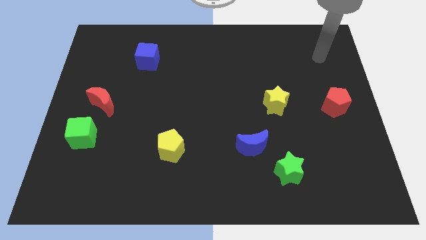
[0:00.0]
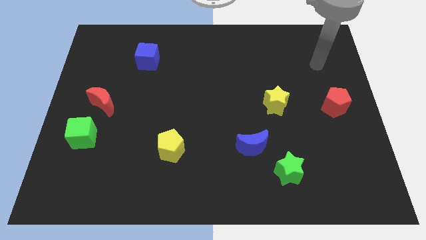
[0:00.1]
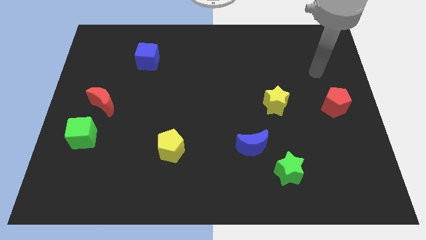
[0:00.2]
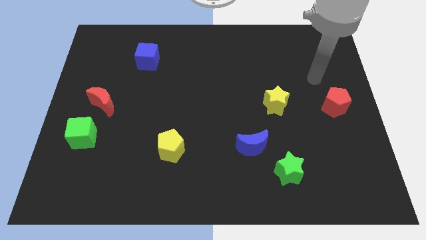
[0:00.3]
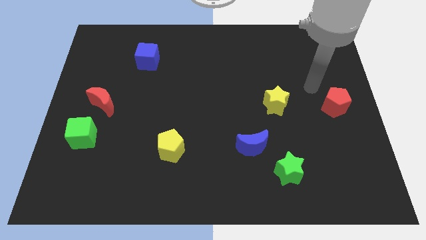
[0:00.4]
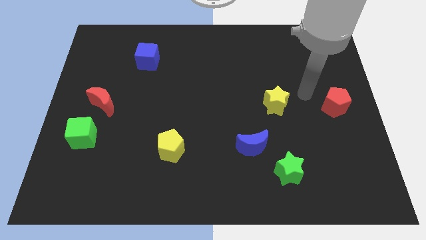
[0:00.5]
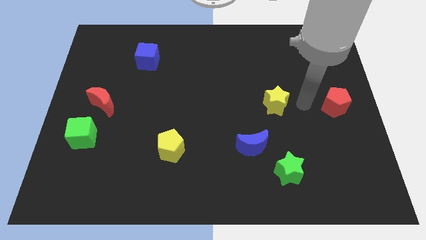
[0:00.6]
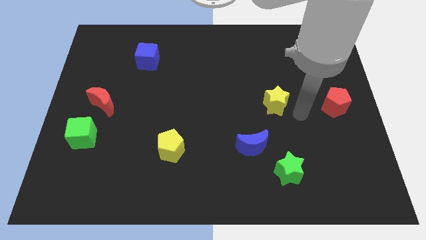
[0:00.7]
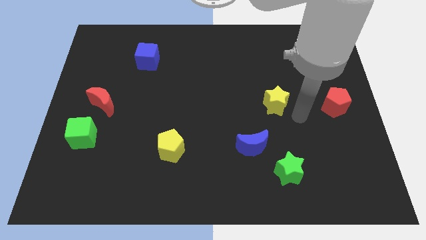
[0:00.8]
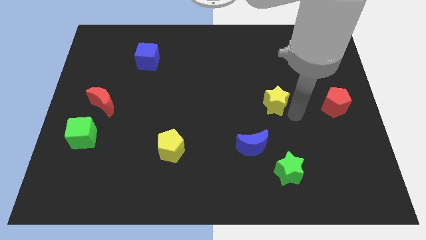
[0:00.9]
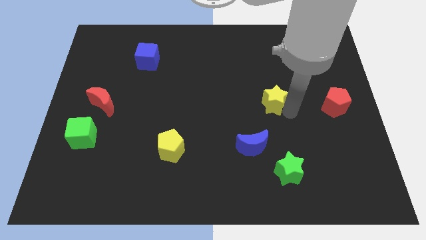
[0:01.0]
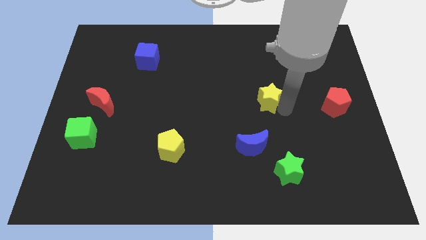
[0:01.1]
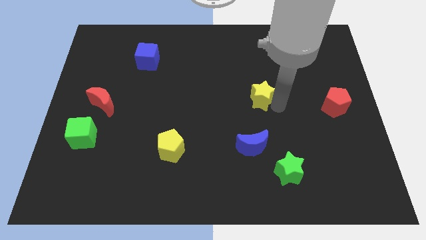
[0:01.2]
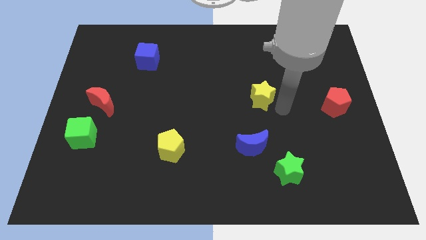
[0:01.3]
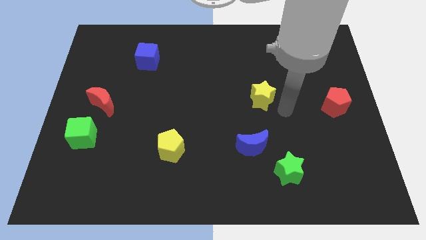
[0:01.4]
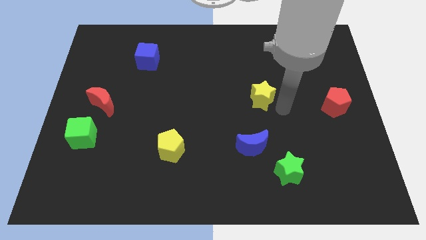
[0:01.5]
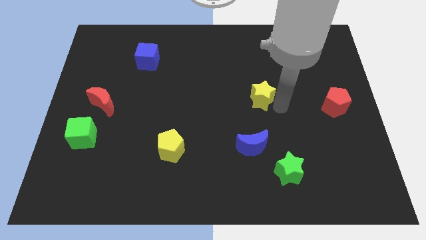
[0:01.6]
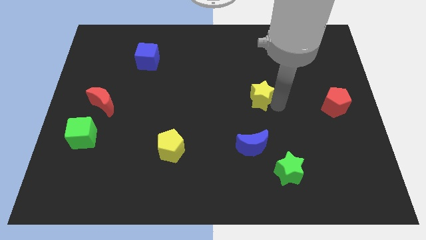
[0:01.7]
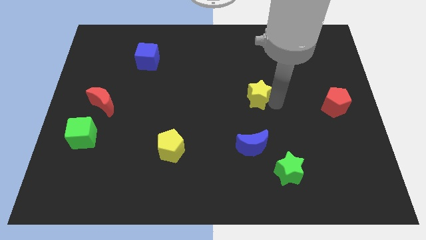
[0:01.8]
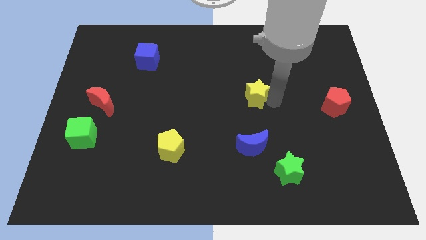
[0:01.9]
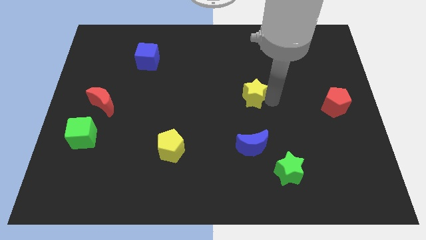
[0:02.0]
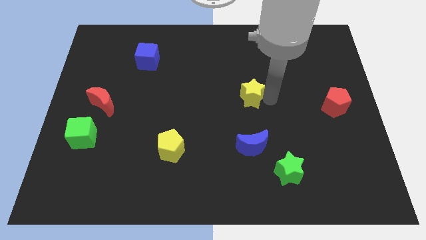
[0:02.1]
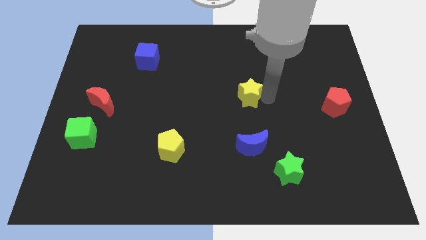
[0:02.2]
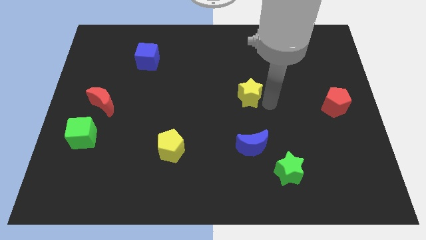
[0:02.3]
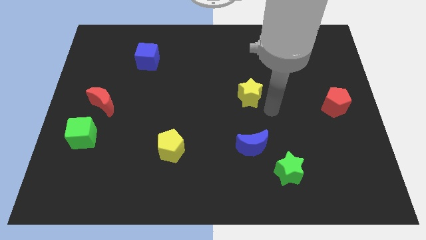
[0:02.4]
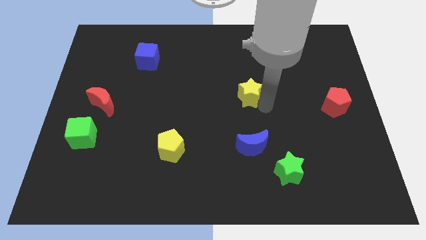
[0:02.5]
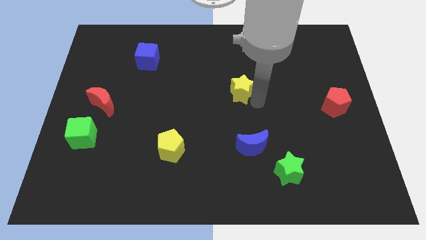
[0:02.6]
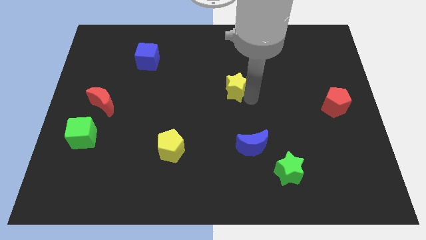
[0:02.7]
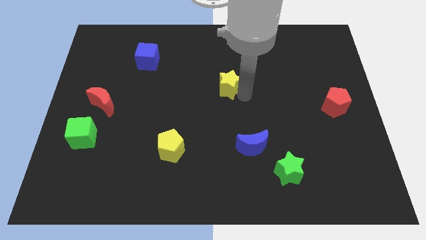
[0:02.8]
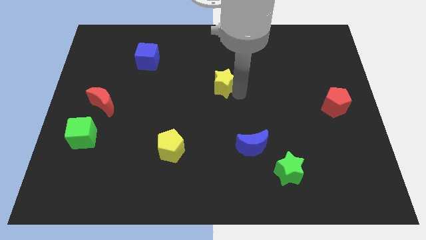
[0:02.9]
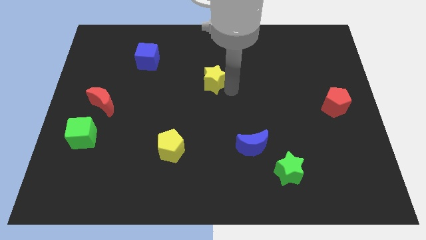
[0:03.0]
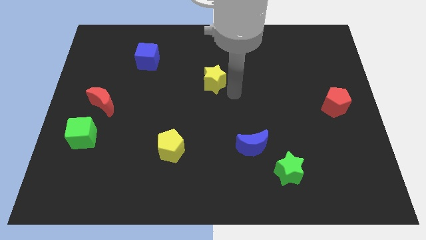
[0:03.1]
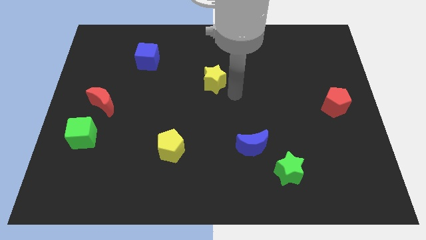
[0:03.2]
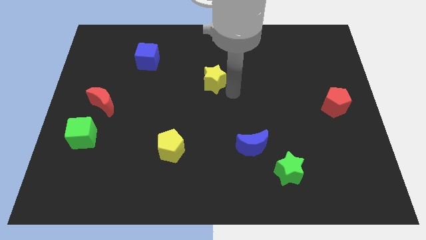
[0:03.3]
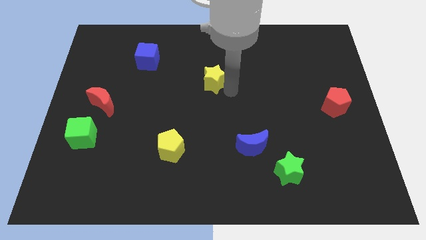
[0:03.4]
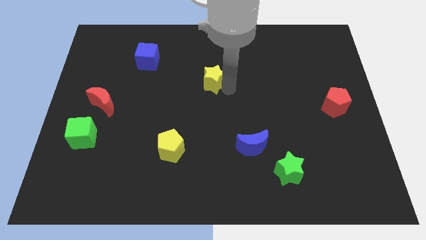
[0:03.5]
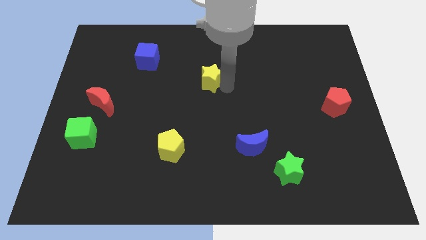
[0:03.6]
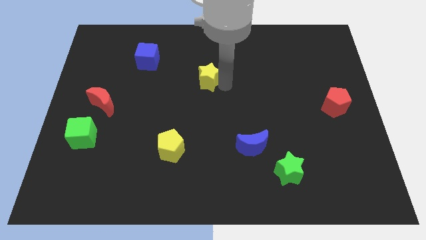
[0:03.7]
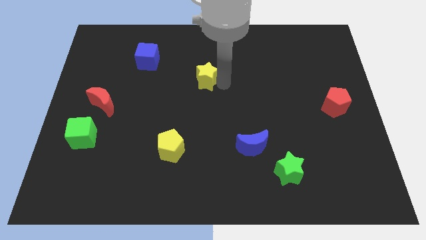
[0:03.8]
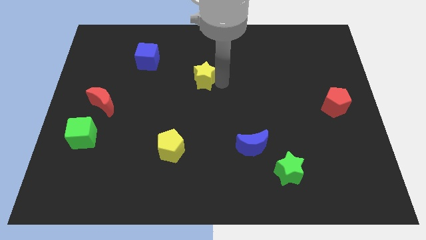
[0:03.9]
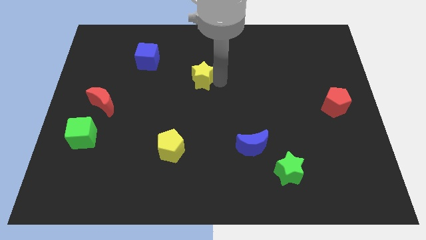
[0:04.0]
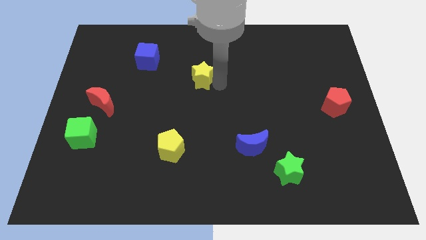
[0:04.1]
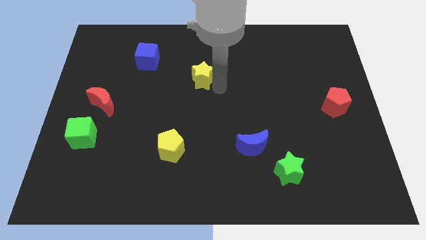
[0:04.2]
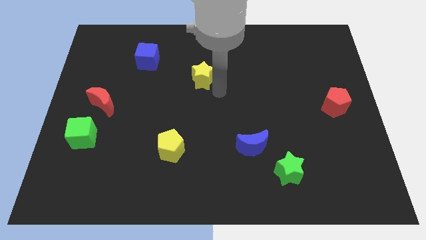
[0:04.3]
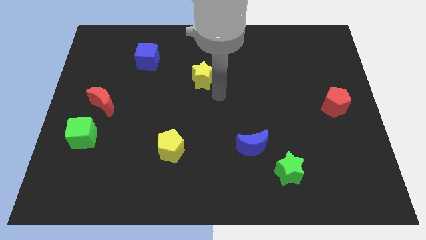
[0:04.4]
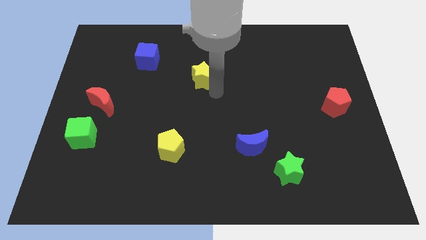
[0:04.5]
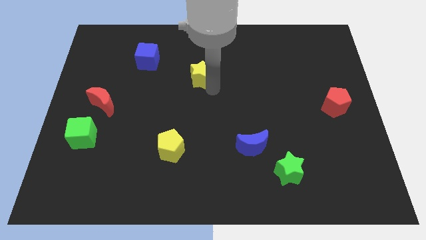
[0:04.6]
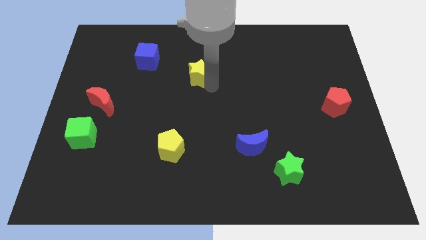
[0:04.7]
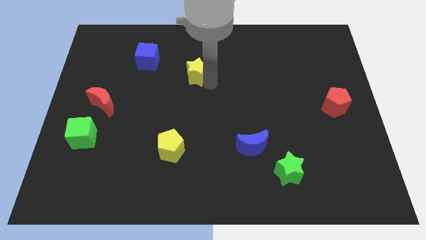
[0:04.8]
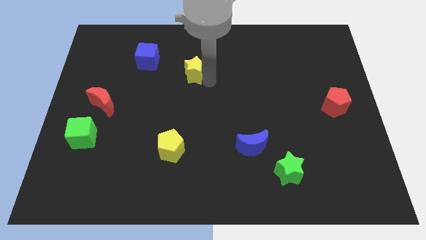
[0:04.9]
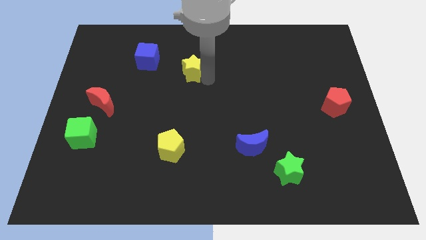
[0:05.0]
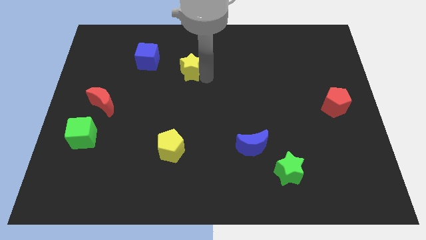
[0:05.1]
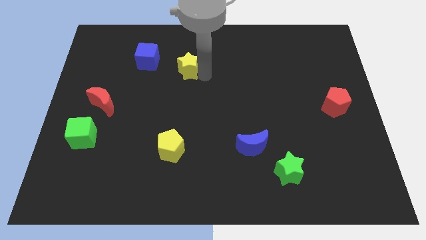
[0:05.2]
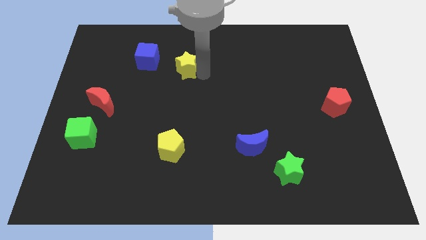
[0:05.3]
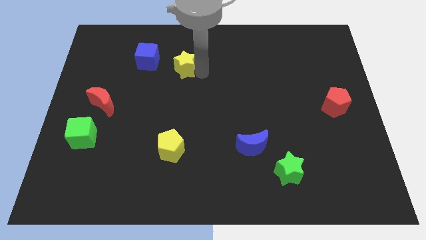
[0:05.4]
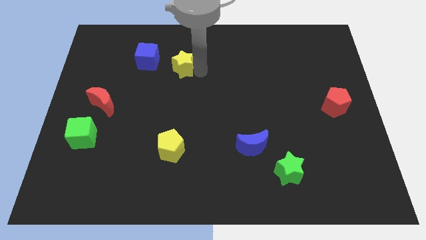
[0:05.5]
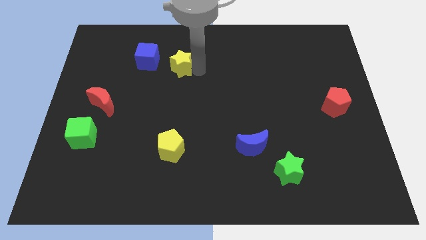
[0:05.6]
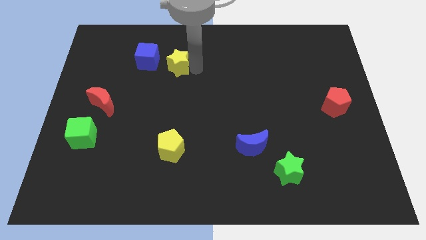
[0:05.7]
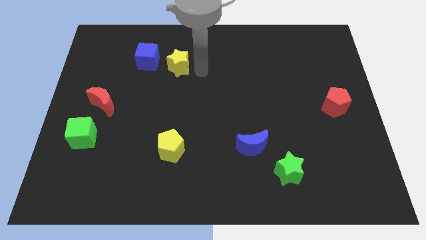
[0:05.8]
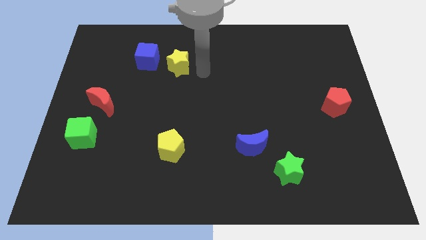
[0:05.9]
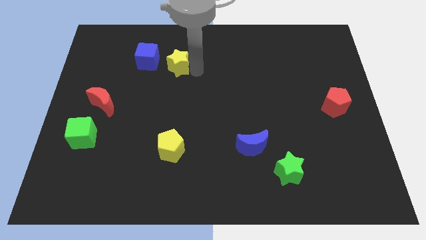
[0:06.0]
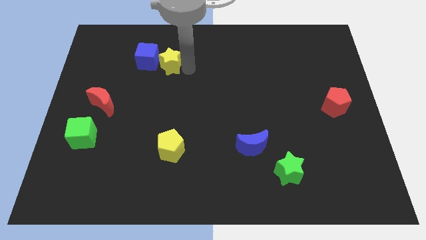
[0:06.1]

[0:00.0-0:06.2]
slide the yellow star next to the blue cube
